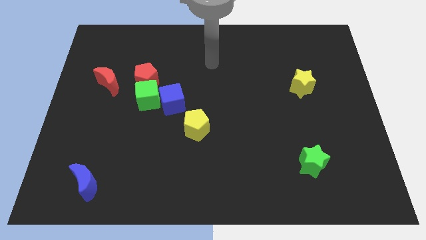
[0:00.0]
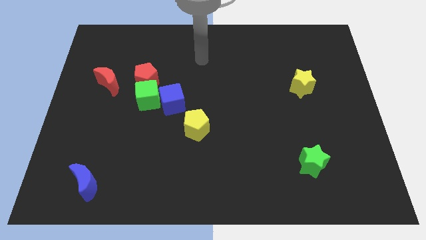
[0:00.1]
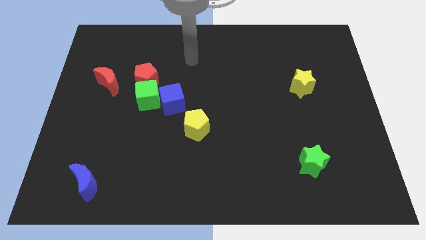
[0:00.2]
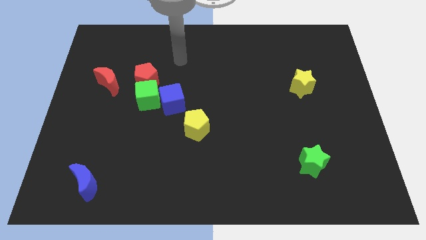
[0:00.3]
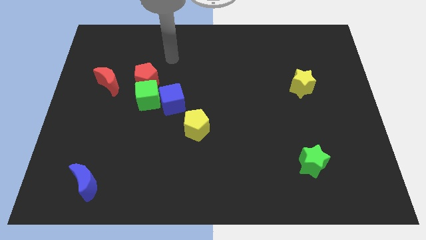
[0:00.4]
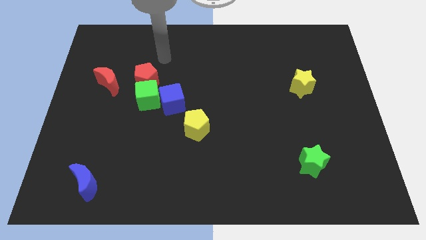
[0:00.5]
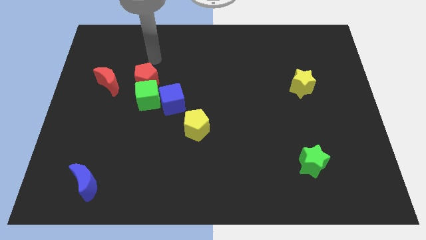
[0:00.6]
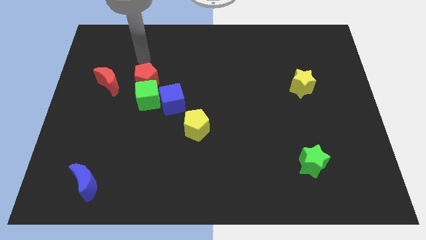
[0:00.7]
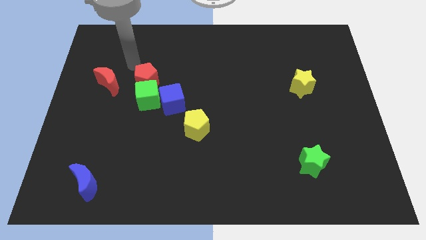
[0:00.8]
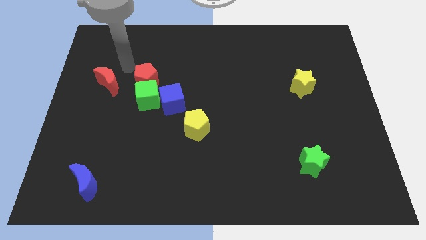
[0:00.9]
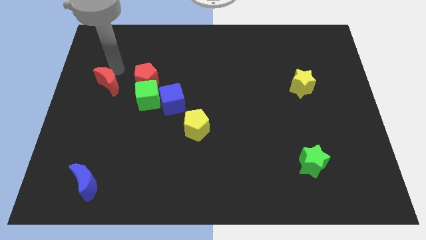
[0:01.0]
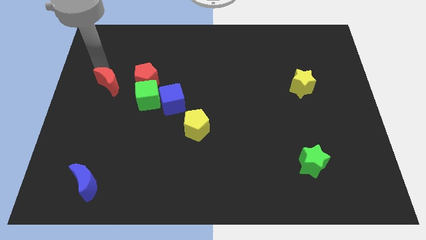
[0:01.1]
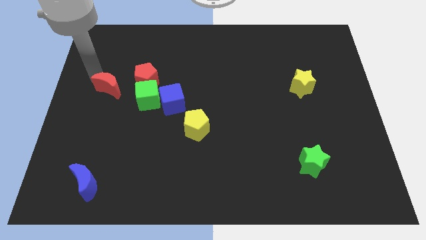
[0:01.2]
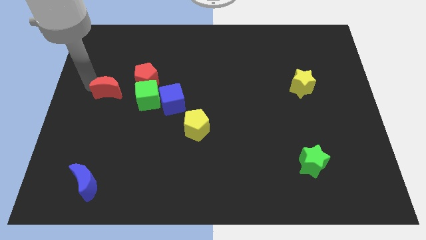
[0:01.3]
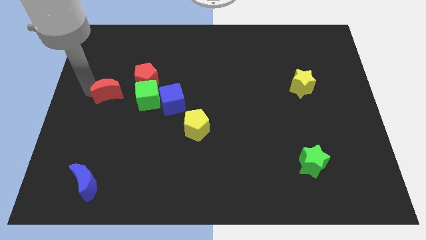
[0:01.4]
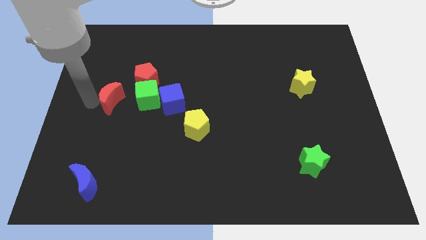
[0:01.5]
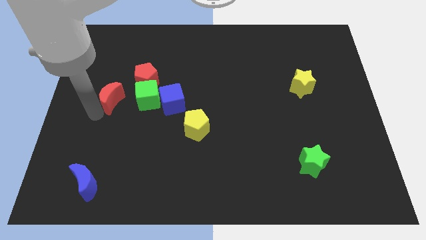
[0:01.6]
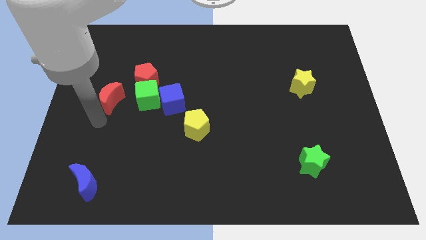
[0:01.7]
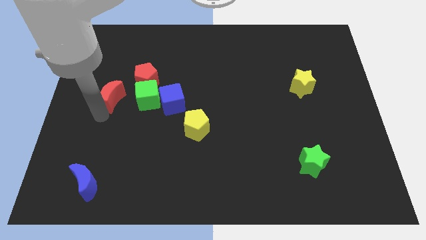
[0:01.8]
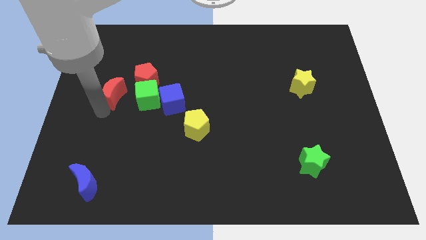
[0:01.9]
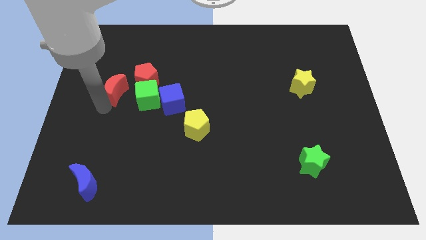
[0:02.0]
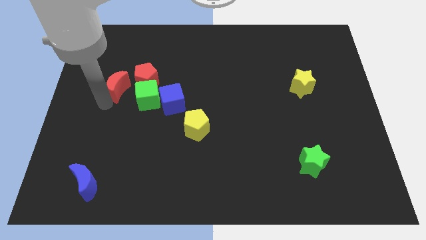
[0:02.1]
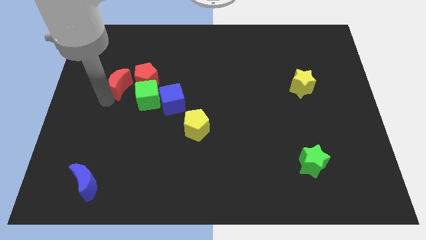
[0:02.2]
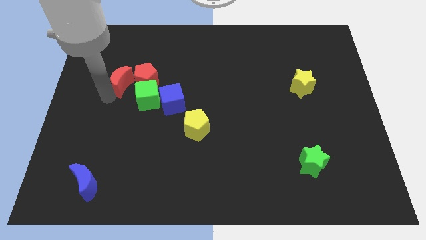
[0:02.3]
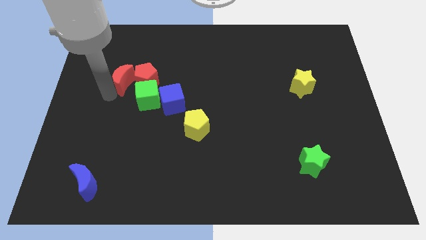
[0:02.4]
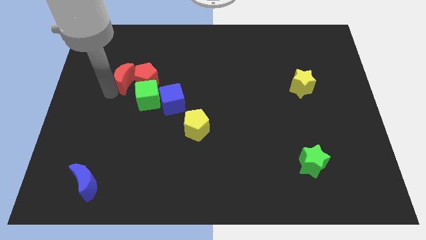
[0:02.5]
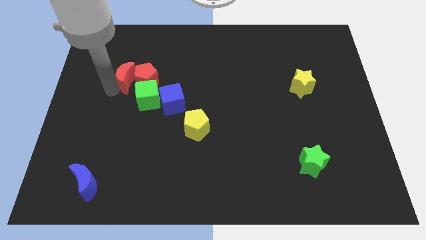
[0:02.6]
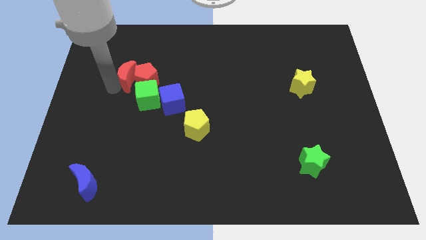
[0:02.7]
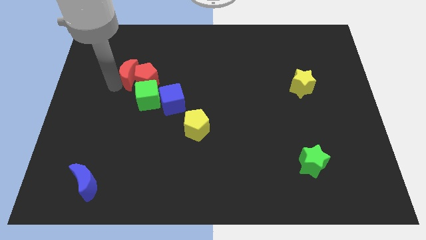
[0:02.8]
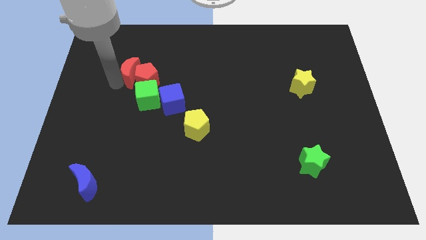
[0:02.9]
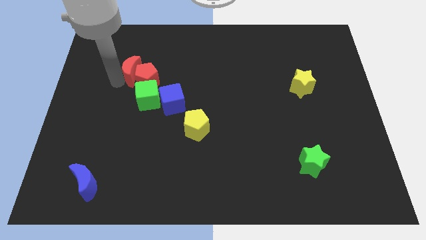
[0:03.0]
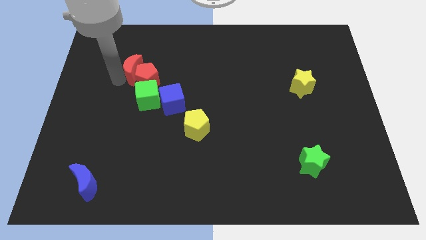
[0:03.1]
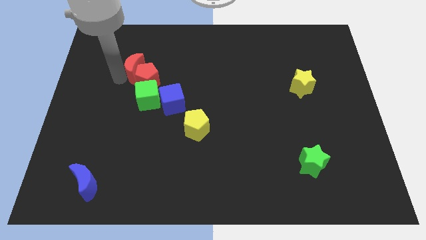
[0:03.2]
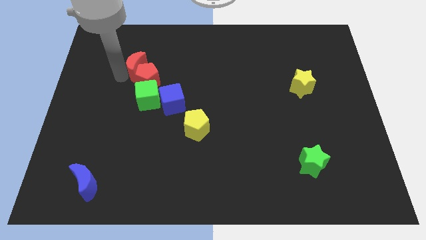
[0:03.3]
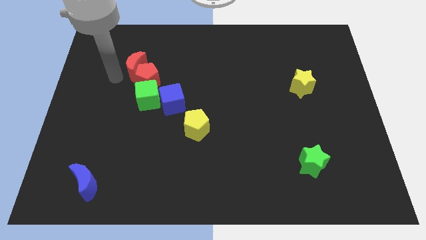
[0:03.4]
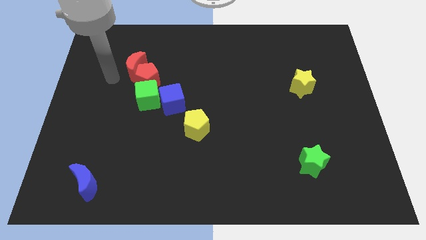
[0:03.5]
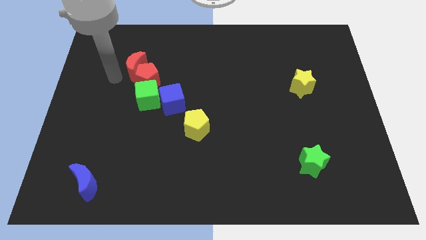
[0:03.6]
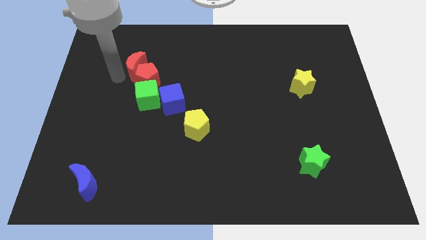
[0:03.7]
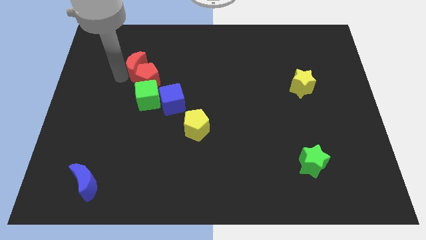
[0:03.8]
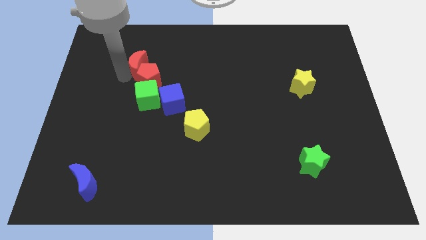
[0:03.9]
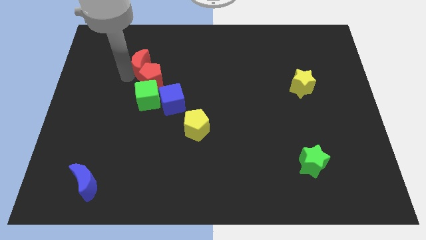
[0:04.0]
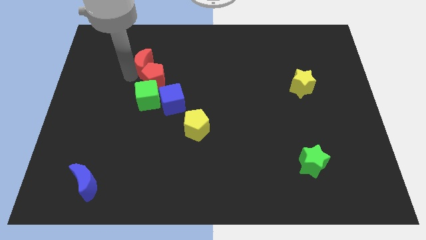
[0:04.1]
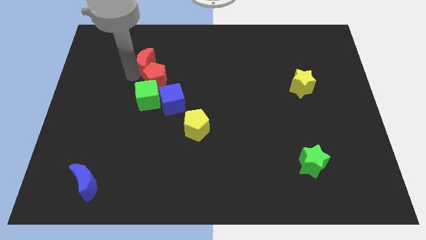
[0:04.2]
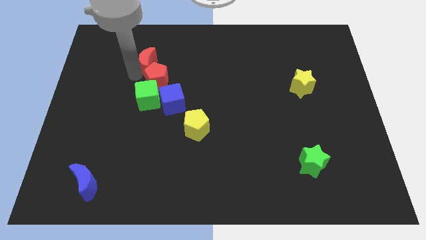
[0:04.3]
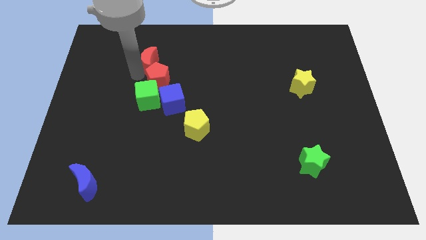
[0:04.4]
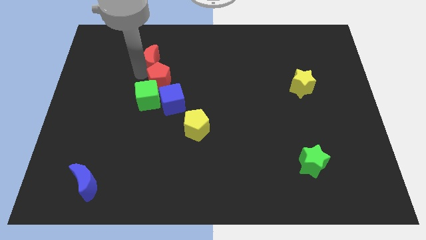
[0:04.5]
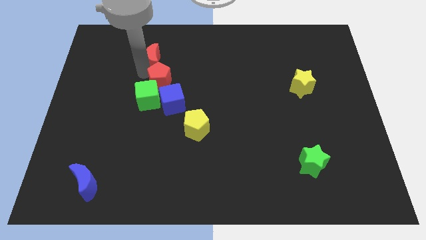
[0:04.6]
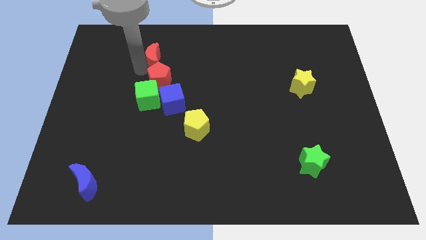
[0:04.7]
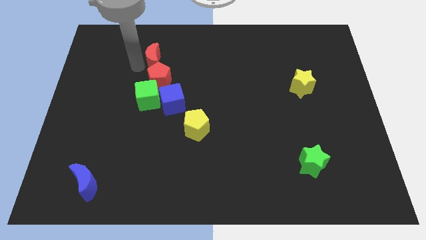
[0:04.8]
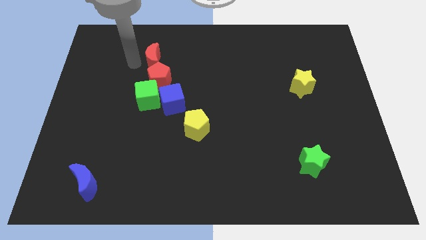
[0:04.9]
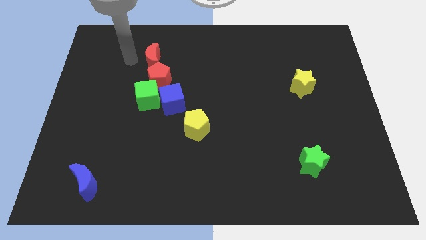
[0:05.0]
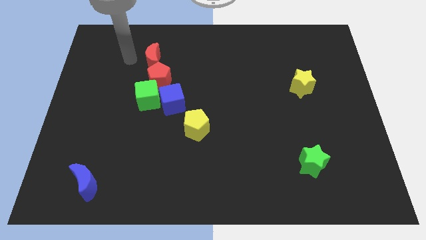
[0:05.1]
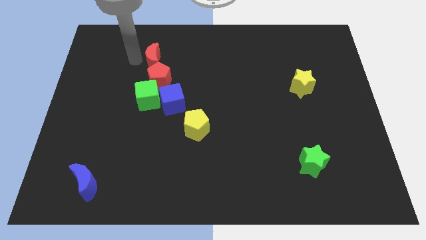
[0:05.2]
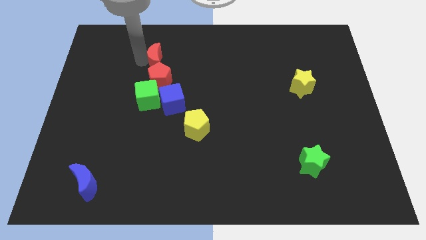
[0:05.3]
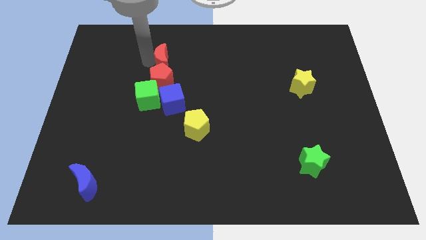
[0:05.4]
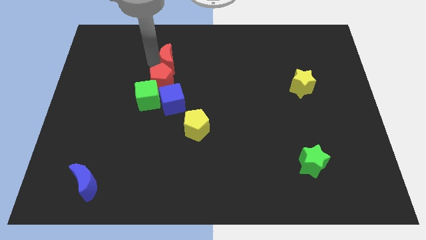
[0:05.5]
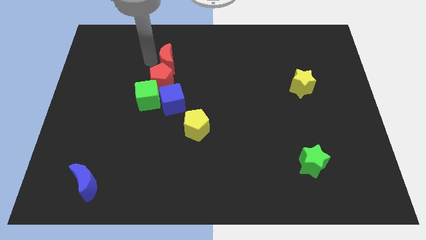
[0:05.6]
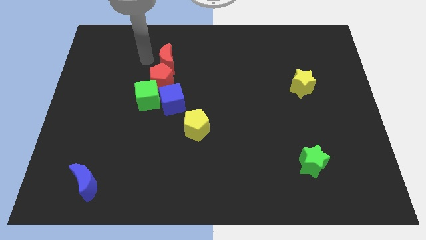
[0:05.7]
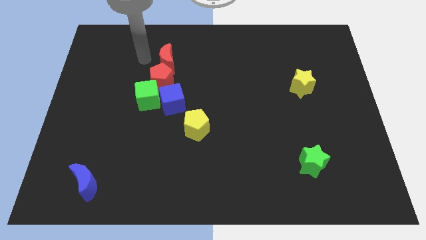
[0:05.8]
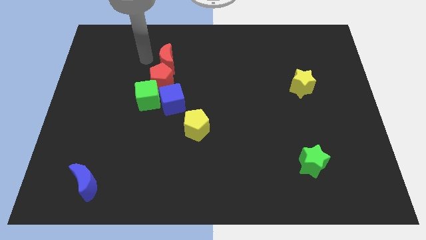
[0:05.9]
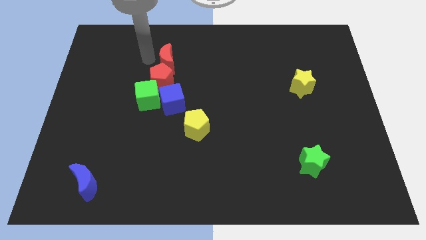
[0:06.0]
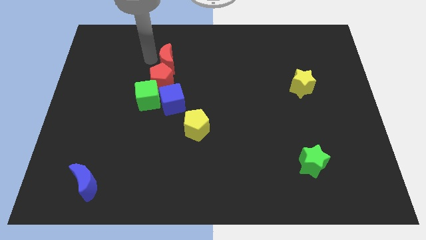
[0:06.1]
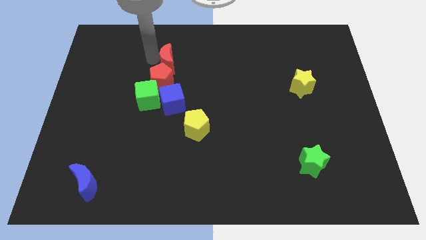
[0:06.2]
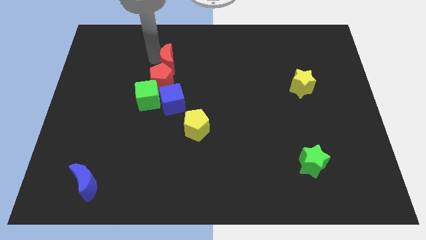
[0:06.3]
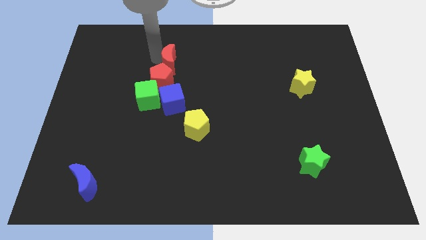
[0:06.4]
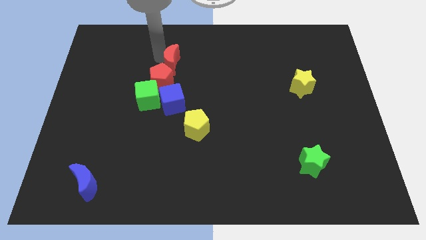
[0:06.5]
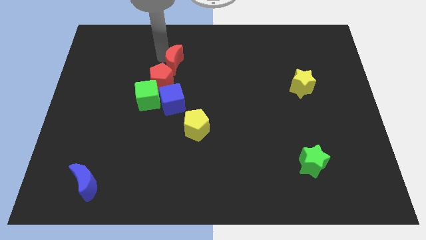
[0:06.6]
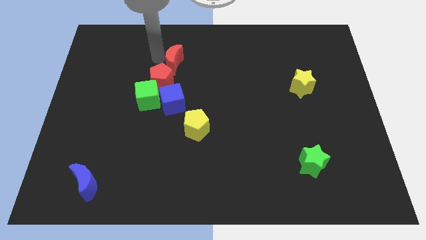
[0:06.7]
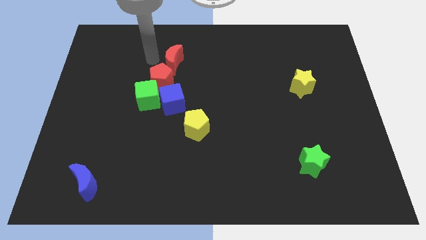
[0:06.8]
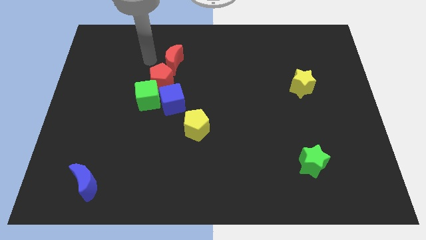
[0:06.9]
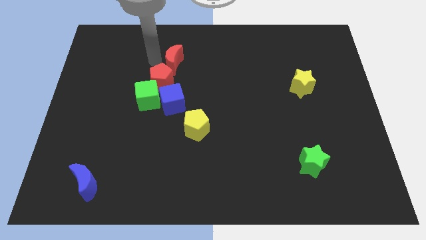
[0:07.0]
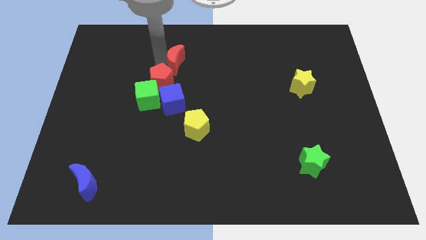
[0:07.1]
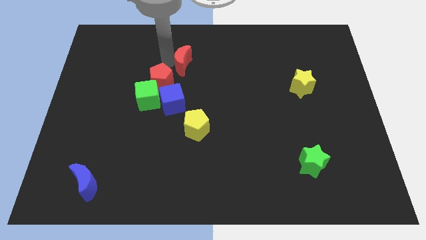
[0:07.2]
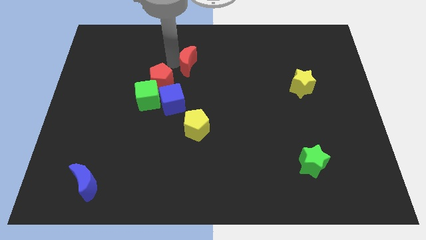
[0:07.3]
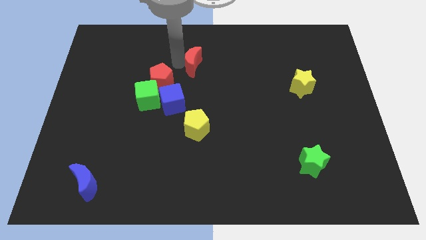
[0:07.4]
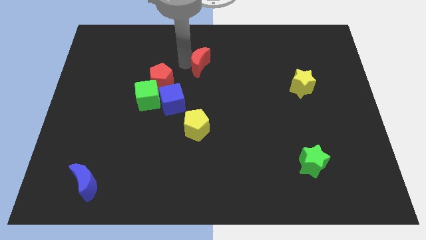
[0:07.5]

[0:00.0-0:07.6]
move the red moon to the right
